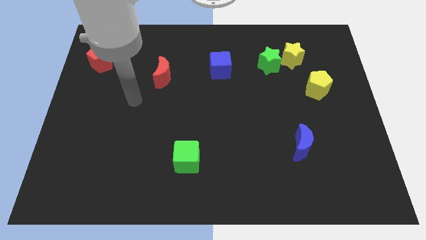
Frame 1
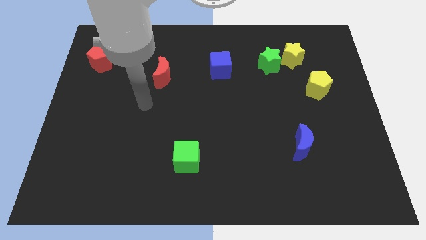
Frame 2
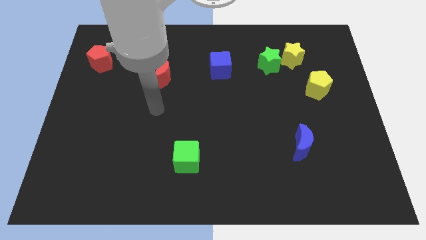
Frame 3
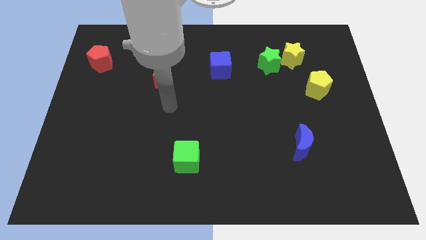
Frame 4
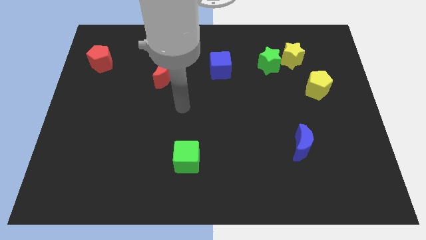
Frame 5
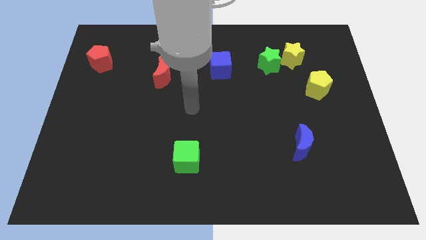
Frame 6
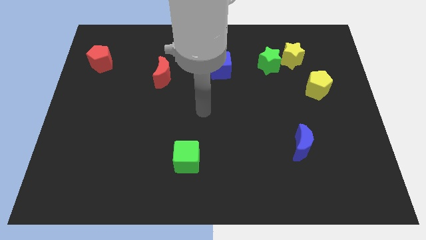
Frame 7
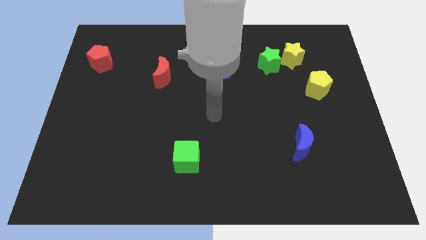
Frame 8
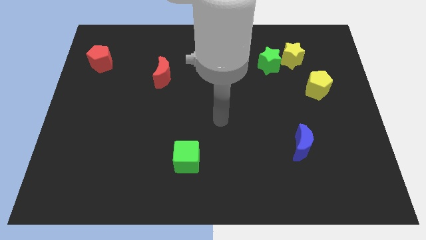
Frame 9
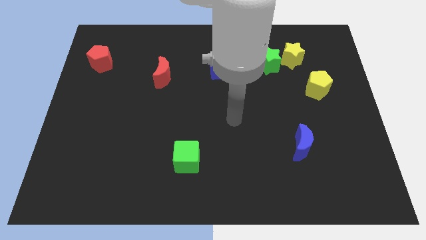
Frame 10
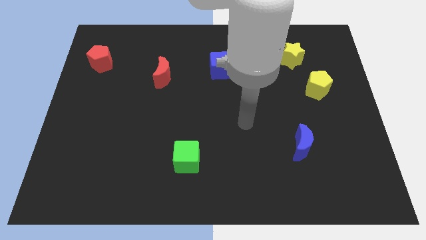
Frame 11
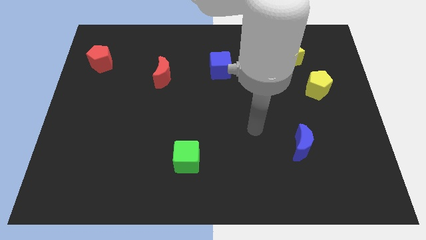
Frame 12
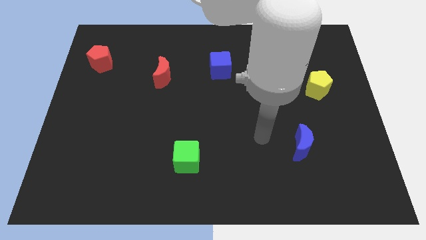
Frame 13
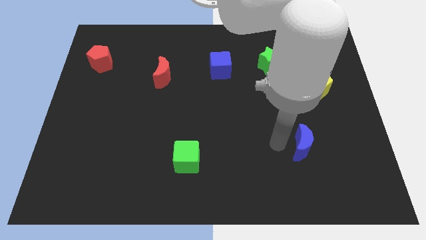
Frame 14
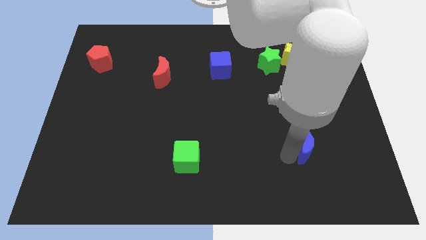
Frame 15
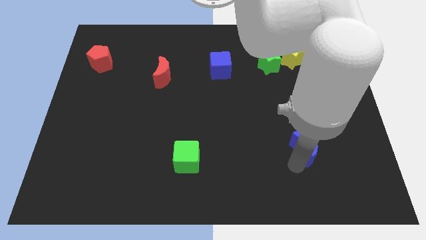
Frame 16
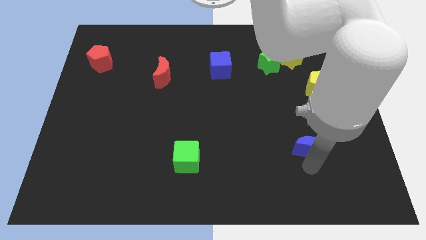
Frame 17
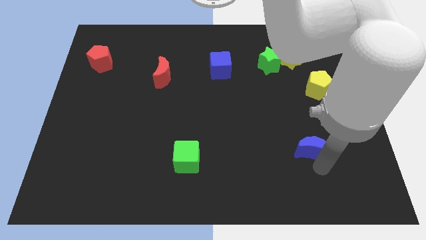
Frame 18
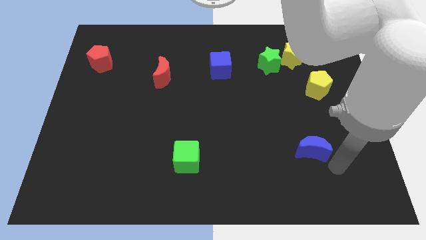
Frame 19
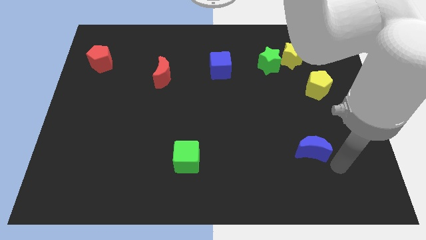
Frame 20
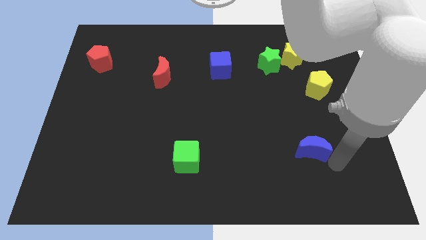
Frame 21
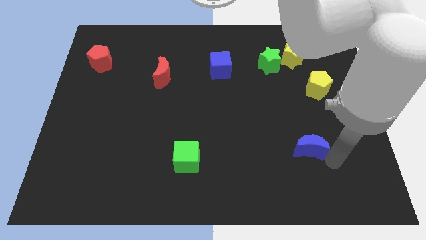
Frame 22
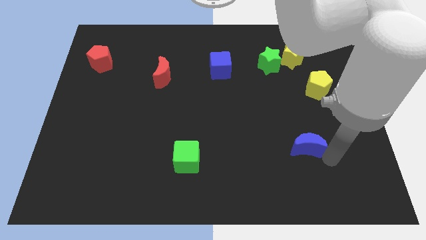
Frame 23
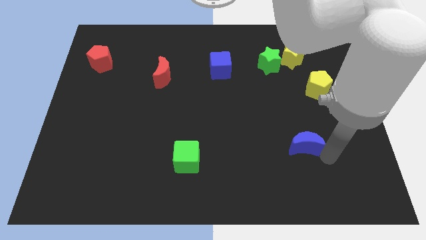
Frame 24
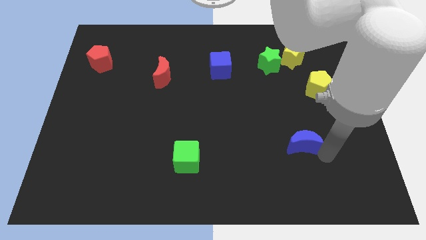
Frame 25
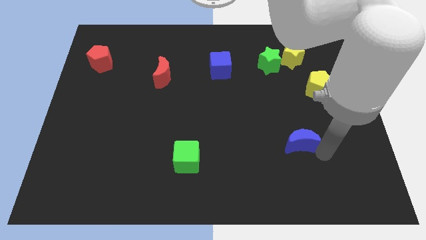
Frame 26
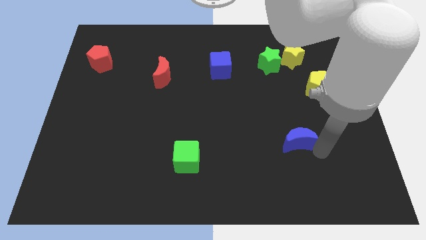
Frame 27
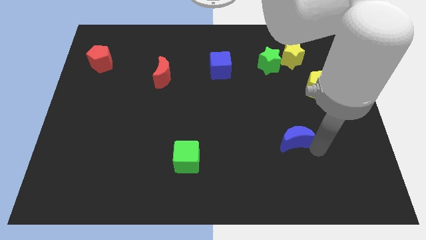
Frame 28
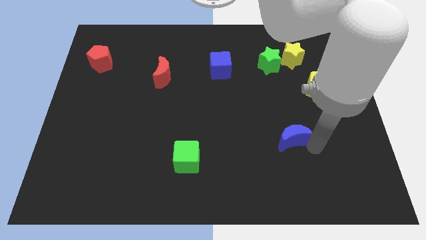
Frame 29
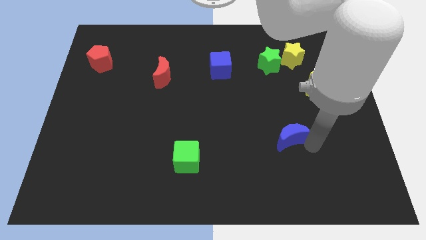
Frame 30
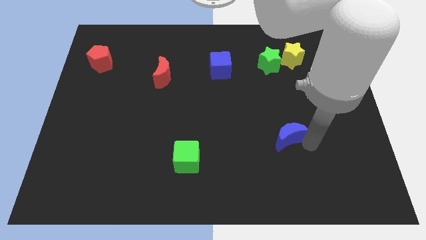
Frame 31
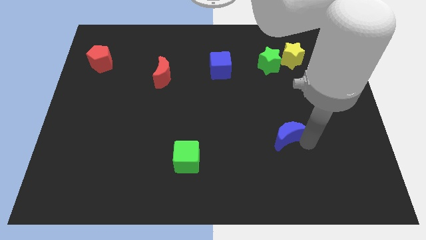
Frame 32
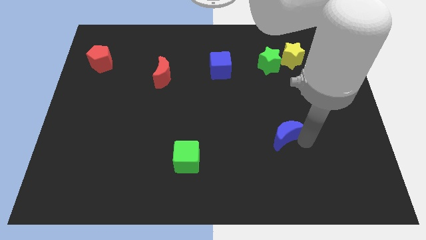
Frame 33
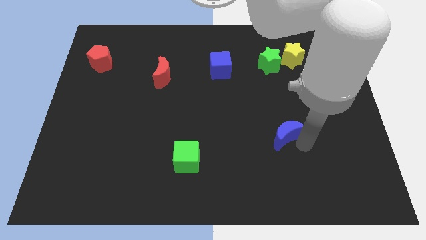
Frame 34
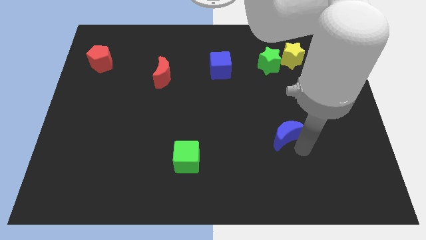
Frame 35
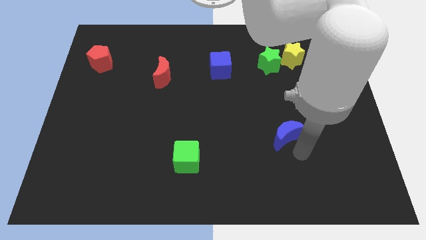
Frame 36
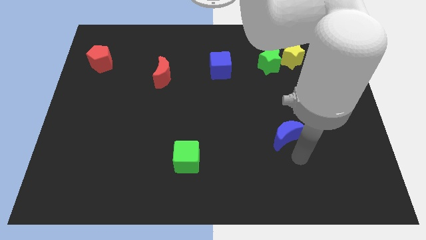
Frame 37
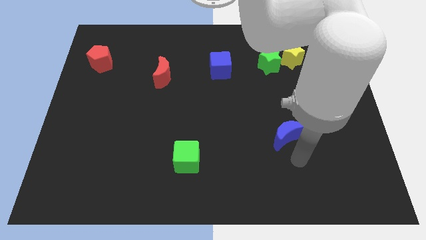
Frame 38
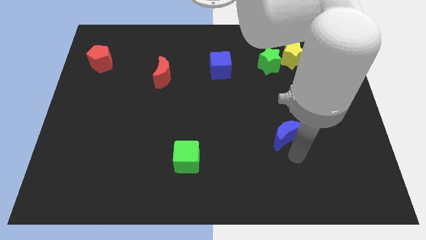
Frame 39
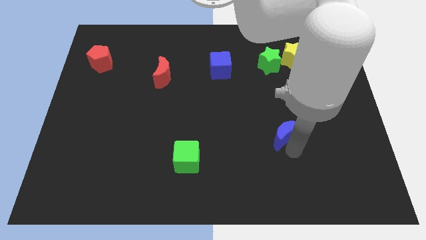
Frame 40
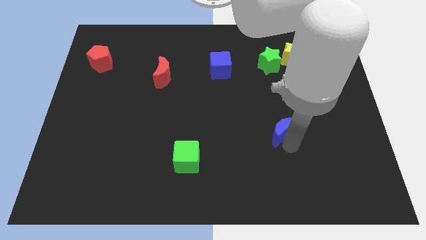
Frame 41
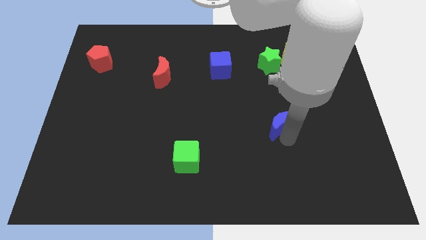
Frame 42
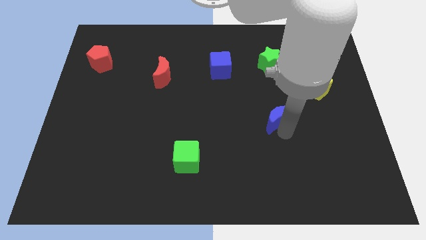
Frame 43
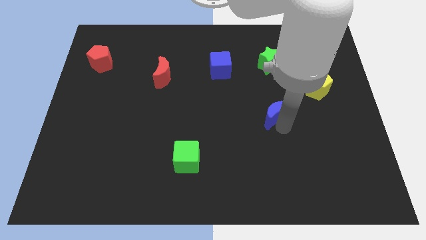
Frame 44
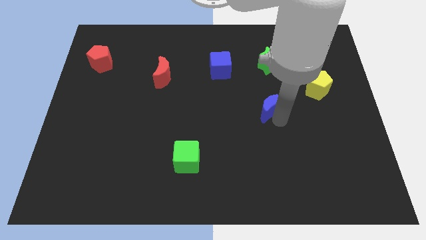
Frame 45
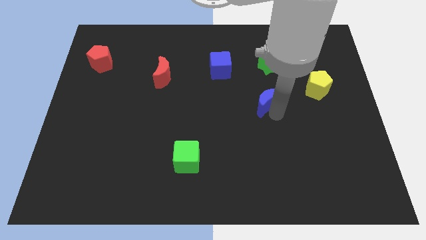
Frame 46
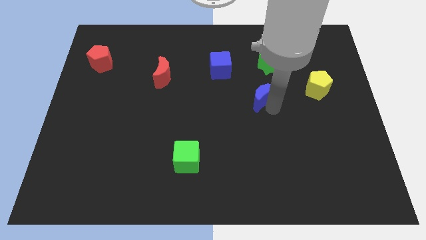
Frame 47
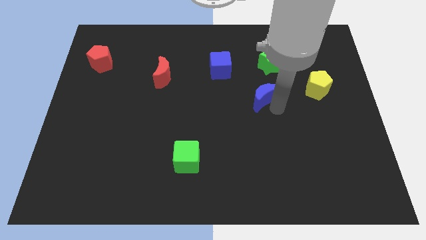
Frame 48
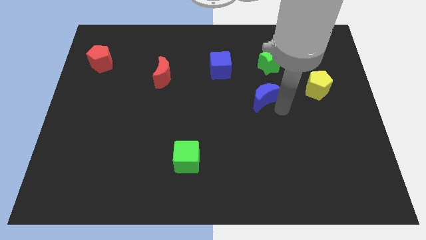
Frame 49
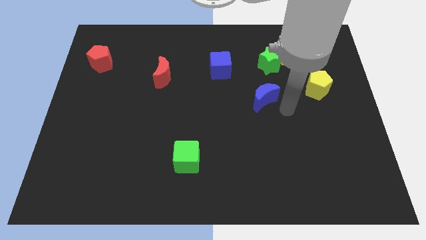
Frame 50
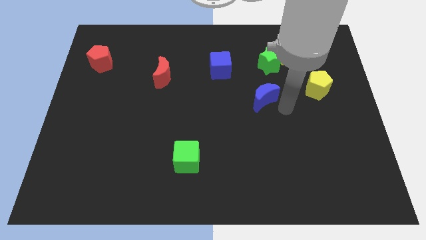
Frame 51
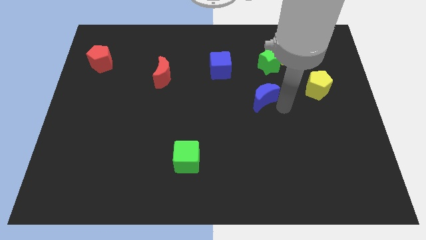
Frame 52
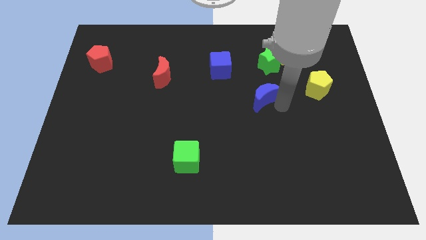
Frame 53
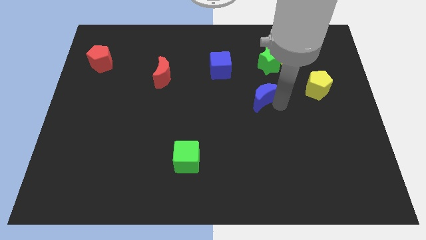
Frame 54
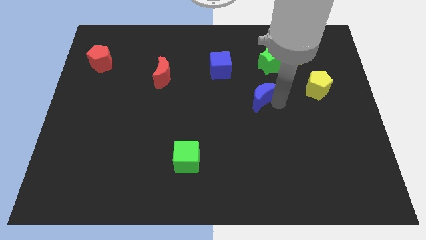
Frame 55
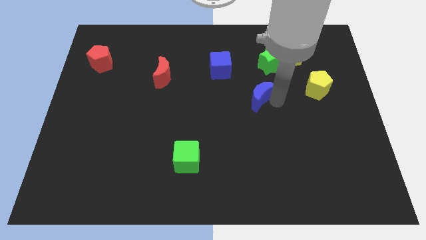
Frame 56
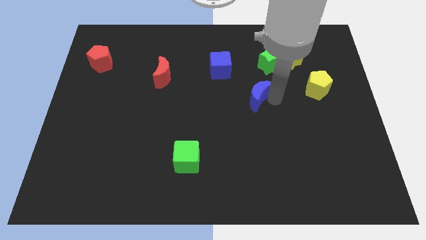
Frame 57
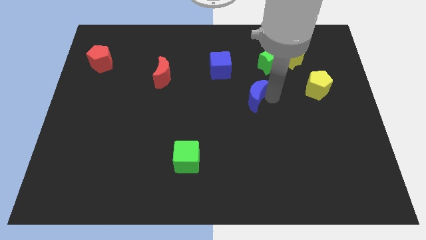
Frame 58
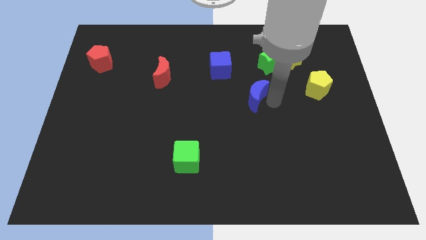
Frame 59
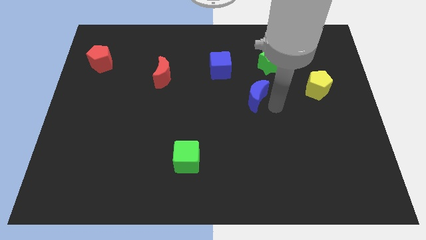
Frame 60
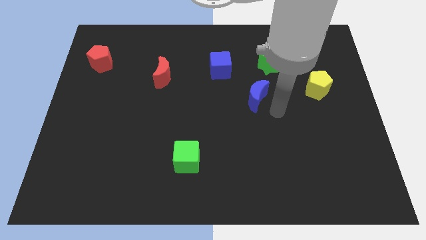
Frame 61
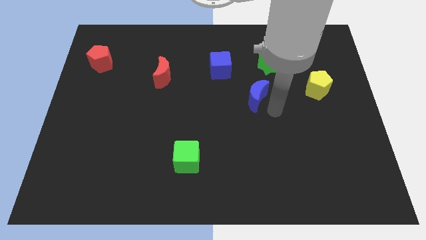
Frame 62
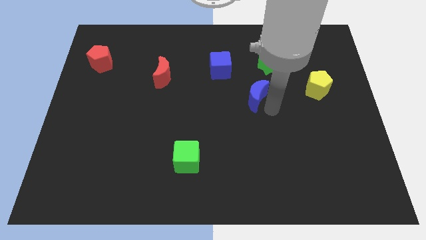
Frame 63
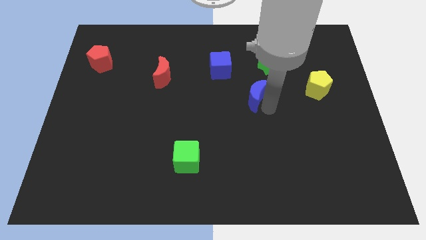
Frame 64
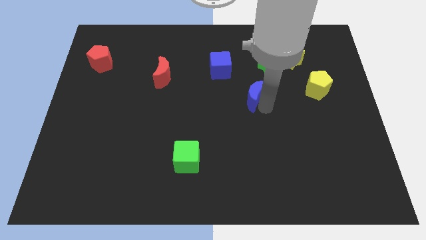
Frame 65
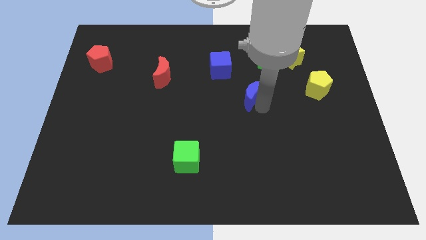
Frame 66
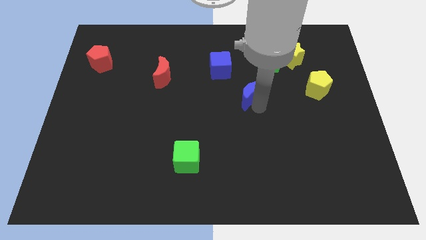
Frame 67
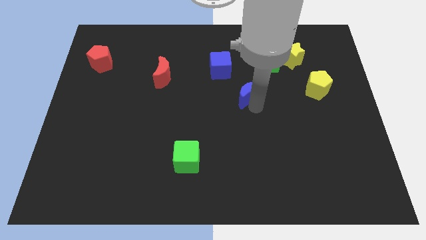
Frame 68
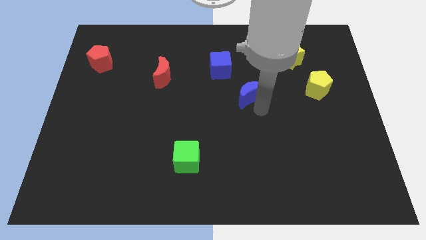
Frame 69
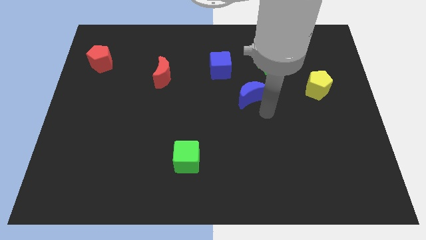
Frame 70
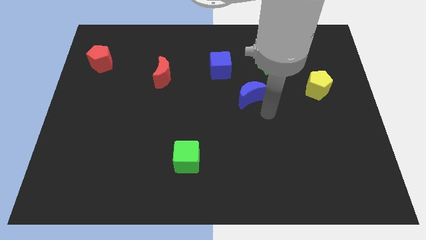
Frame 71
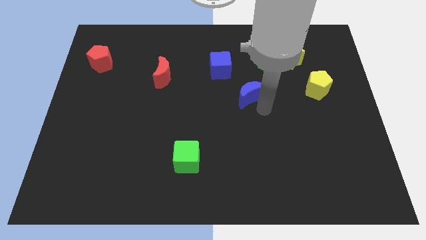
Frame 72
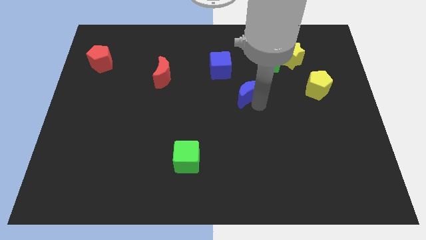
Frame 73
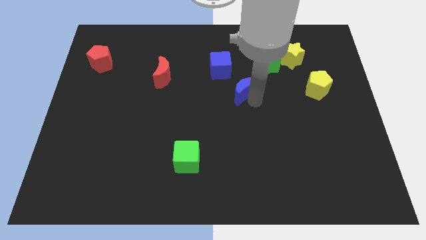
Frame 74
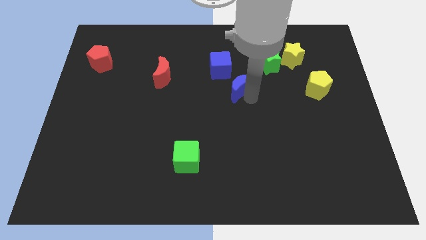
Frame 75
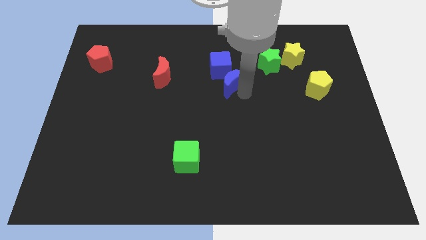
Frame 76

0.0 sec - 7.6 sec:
push the blue moon towards the blue cube
